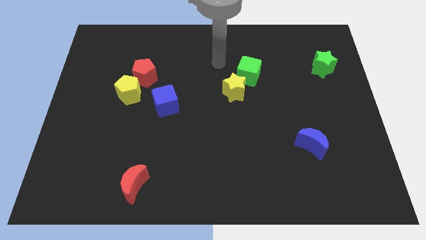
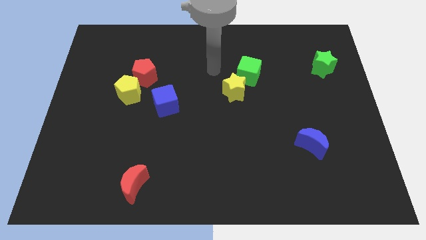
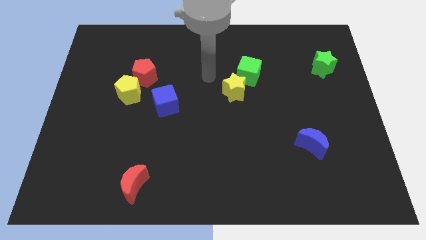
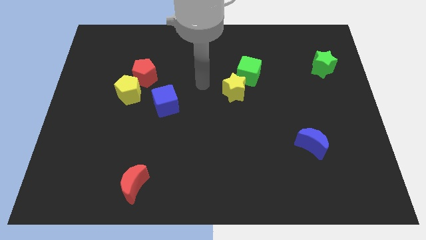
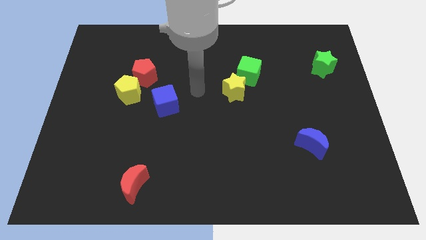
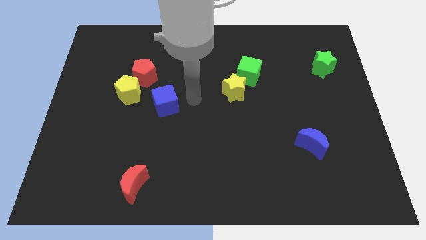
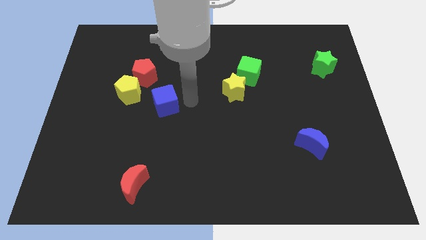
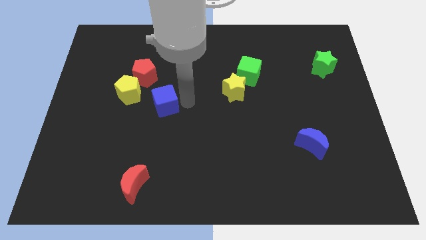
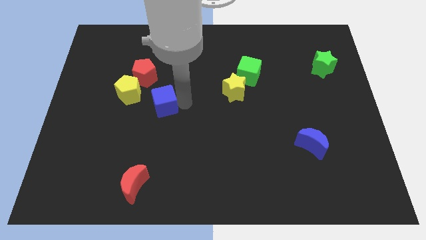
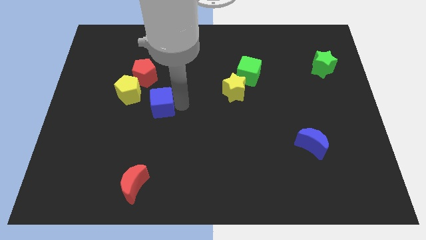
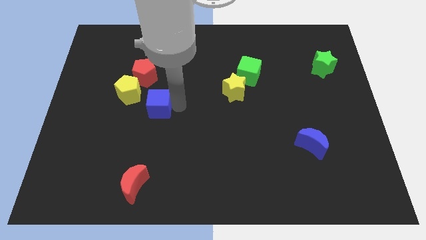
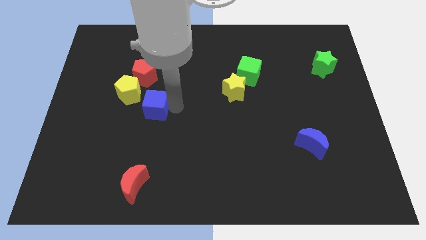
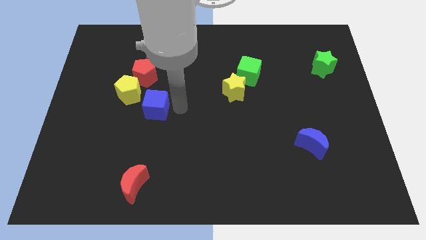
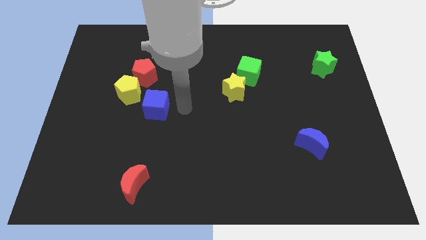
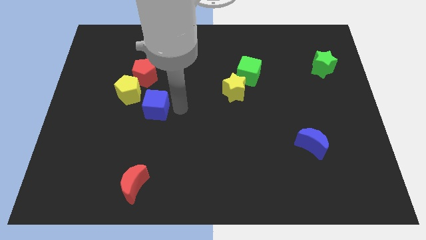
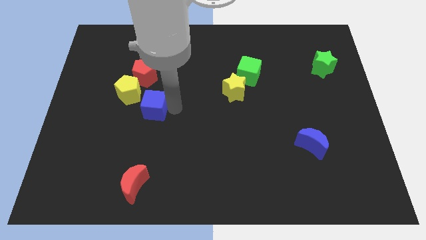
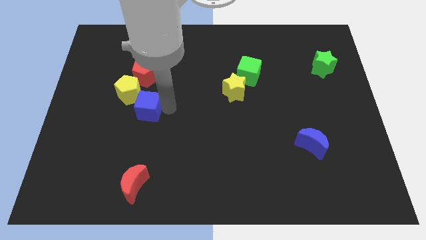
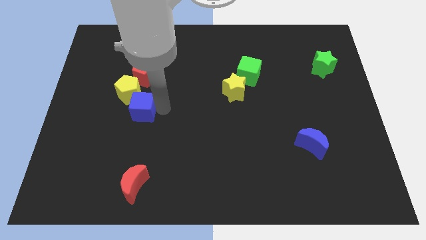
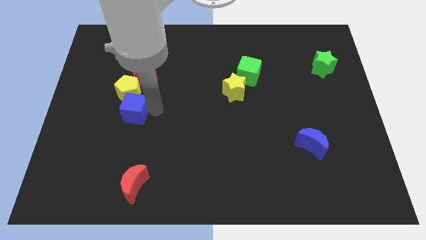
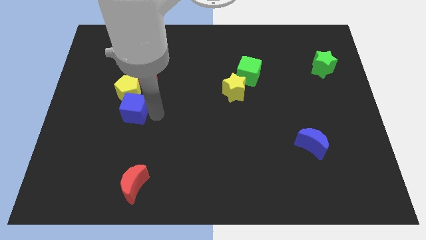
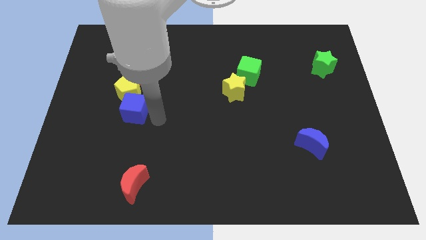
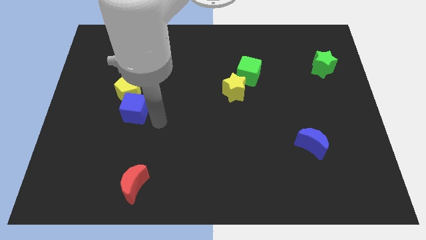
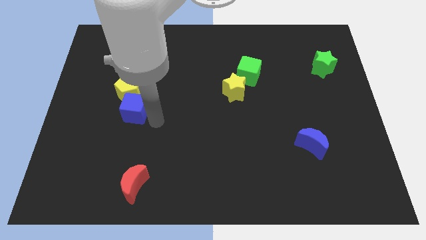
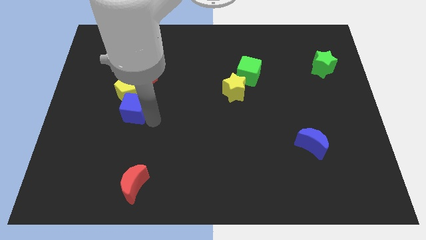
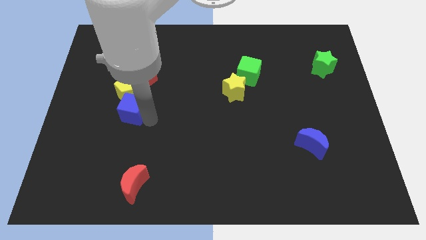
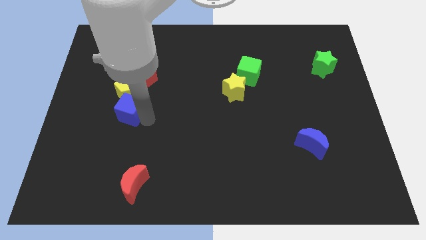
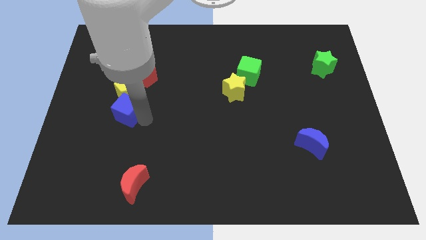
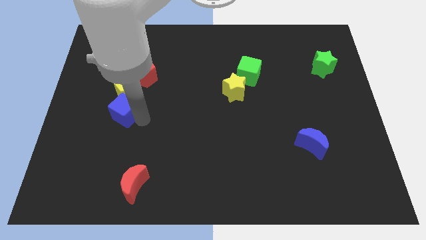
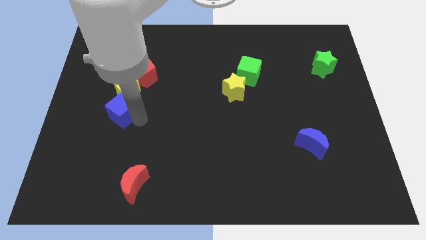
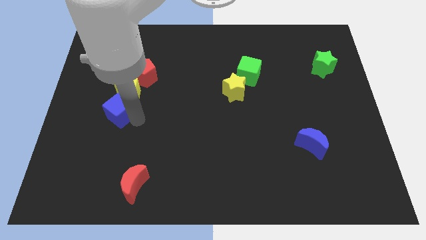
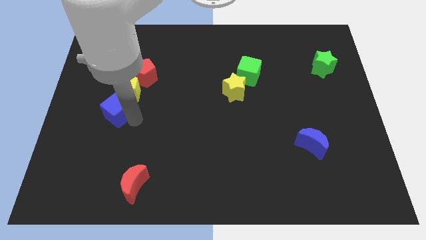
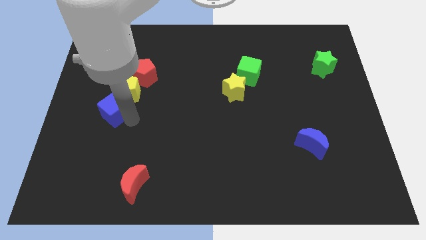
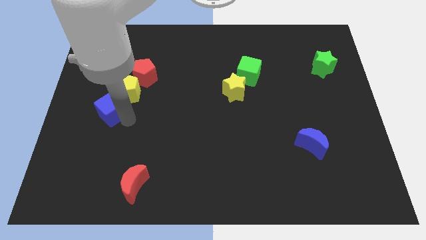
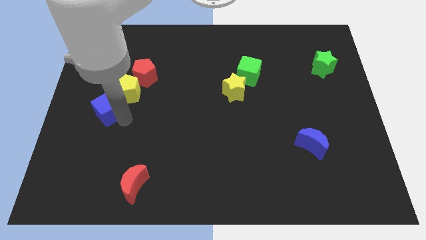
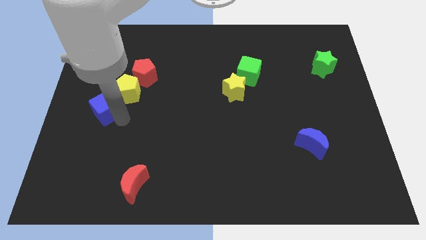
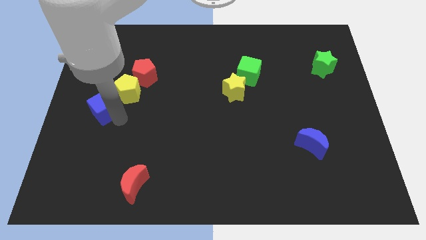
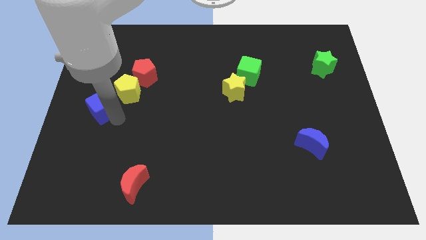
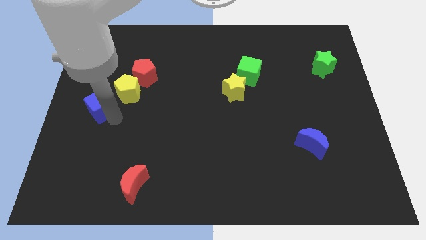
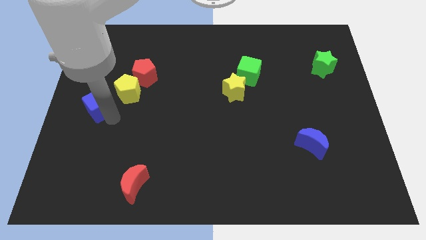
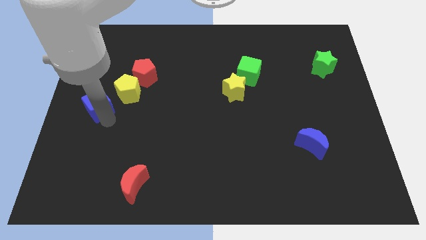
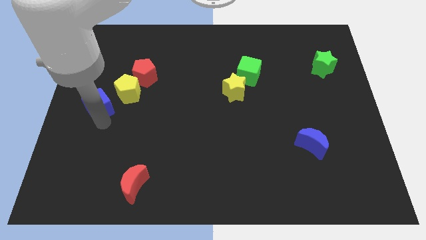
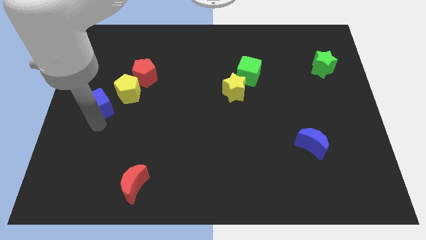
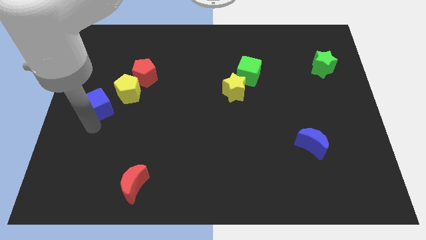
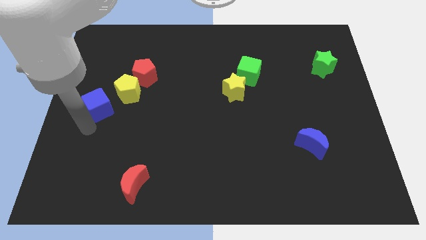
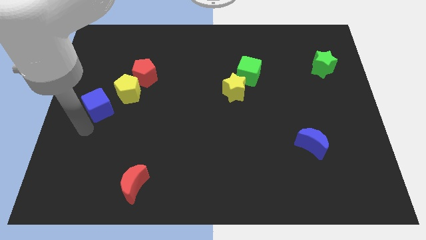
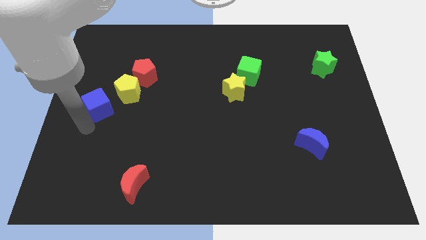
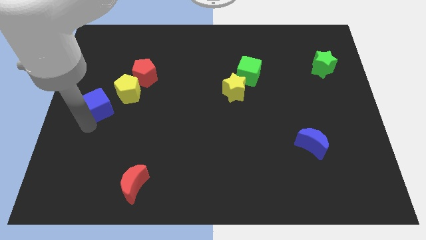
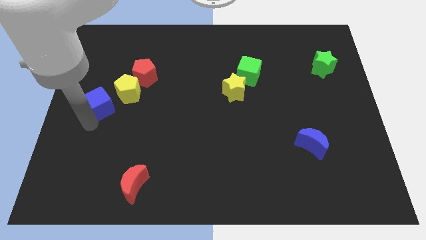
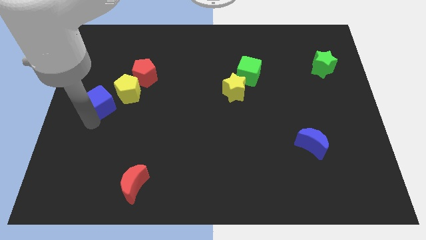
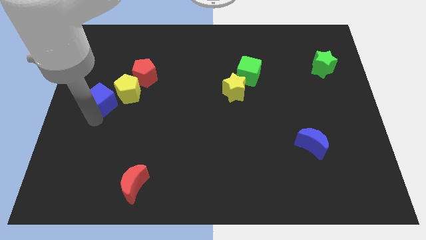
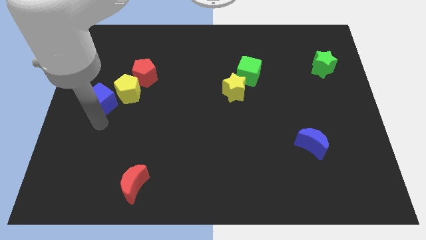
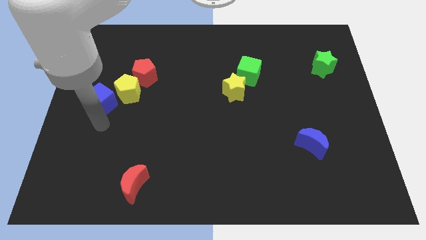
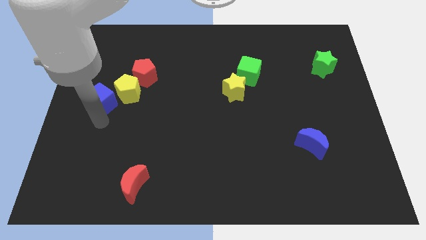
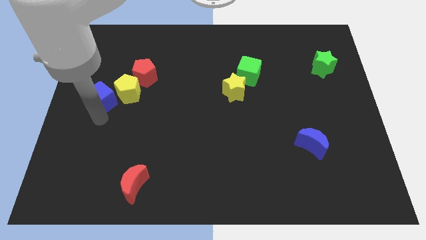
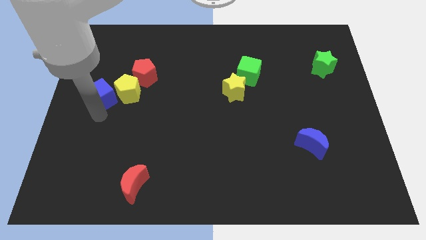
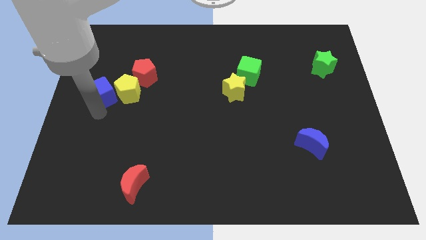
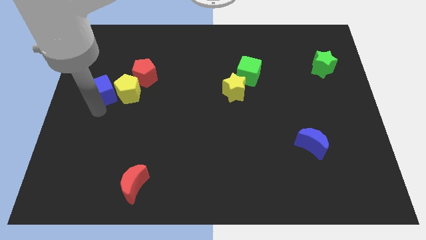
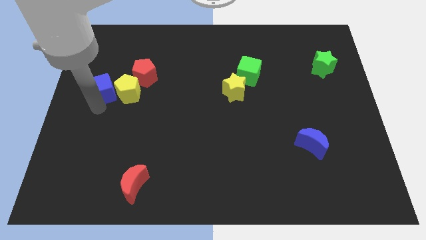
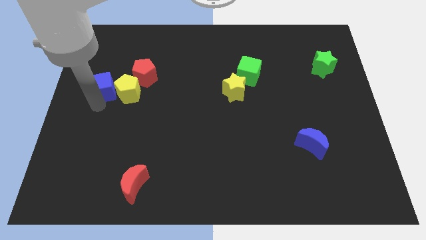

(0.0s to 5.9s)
slide the blue cube just left of the red pentagon

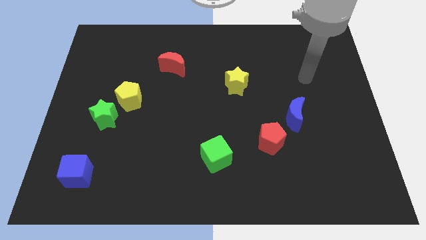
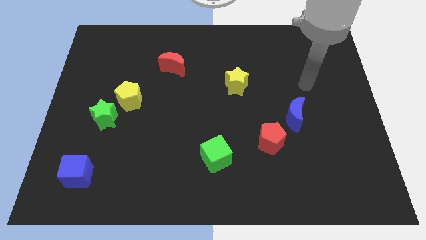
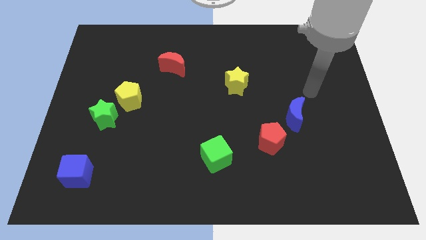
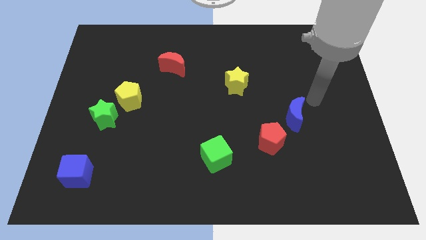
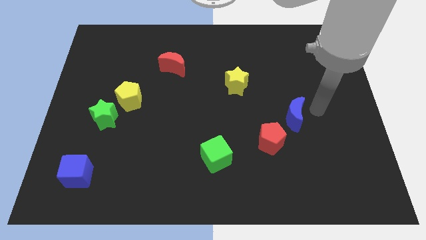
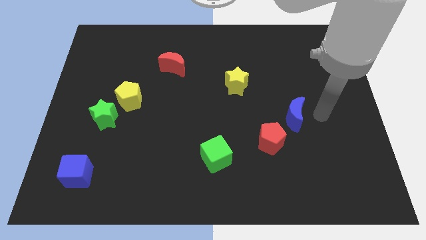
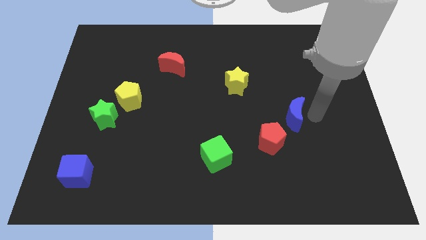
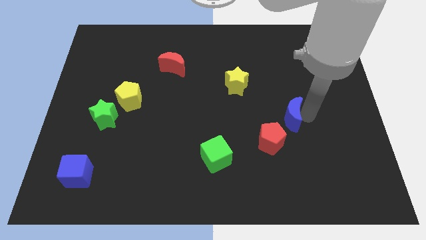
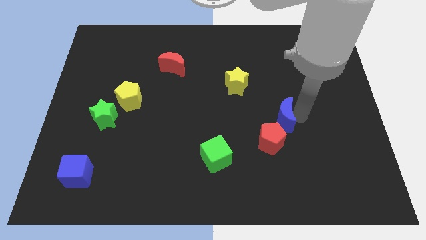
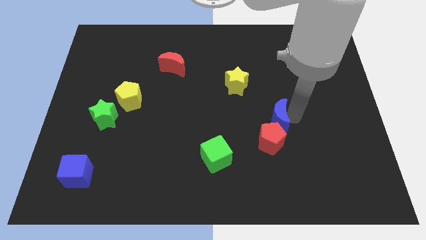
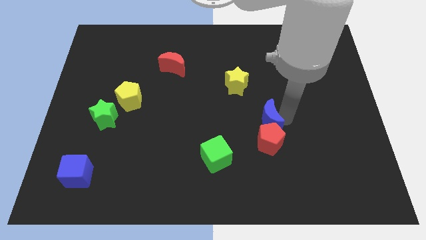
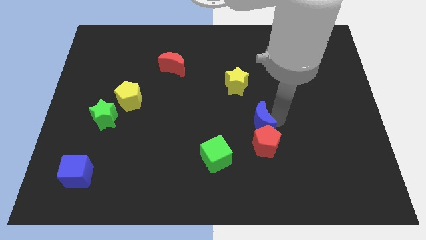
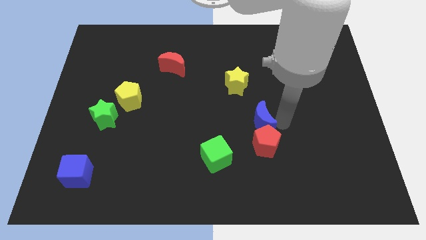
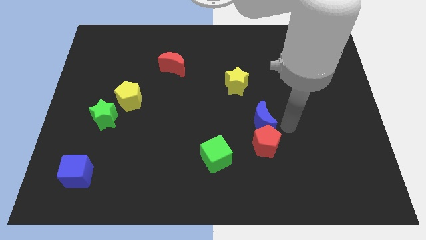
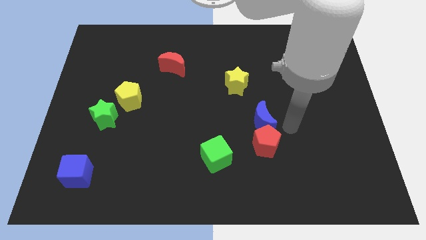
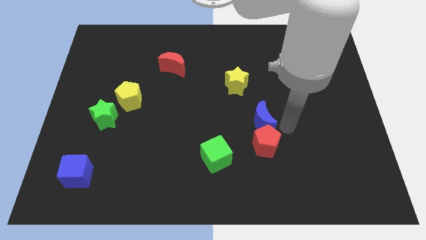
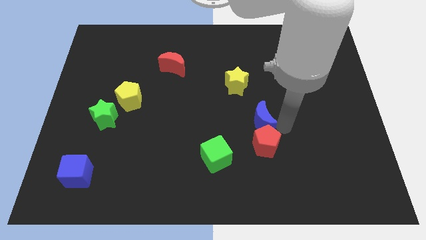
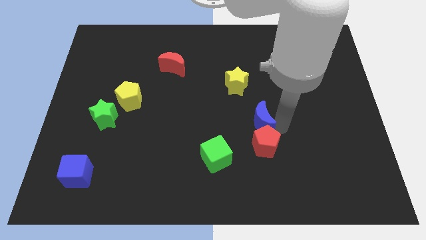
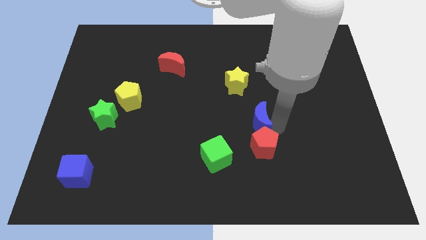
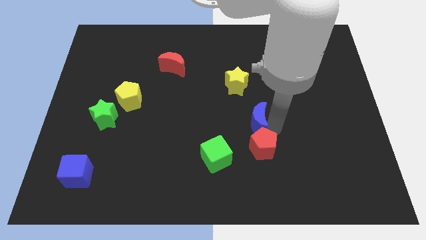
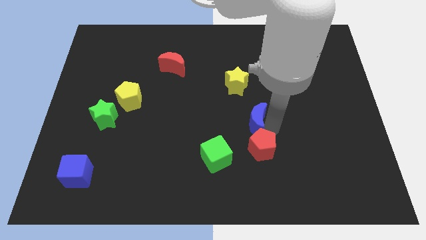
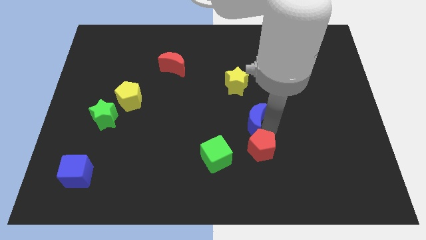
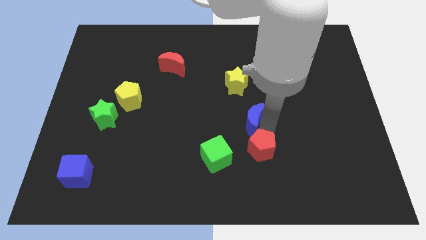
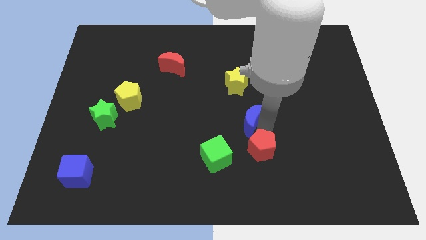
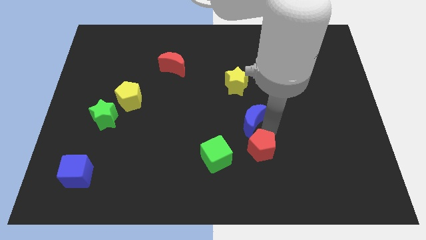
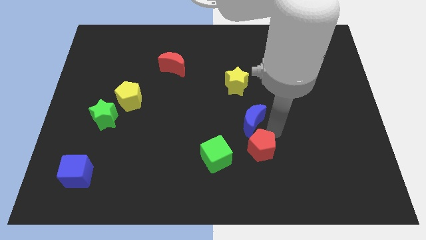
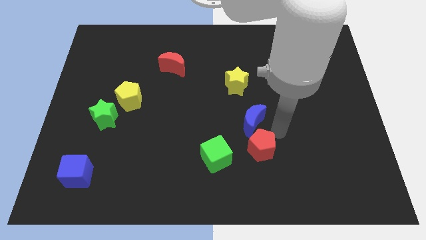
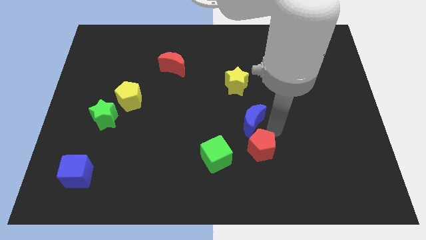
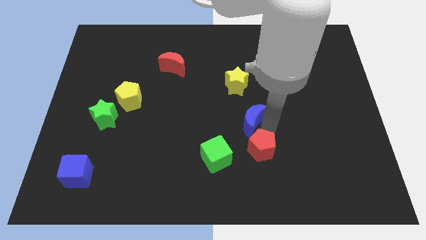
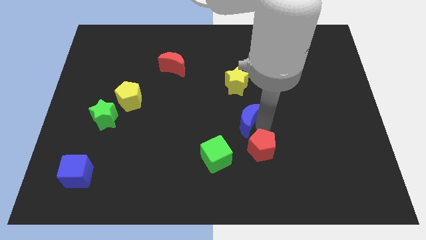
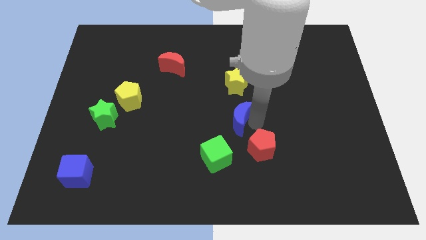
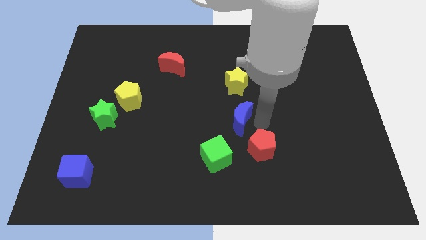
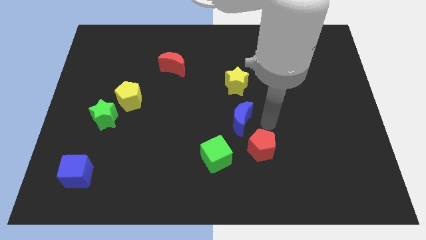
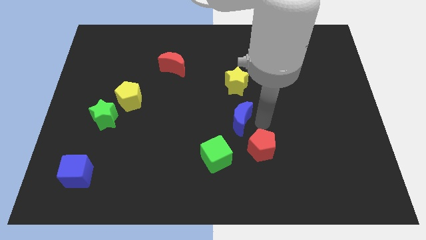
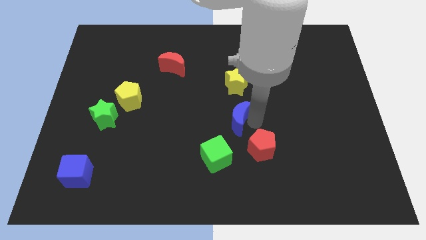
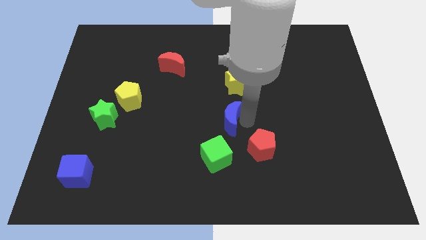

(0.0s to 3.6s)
put the blue moon to the top side of the green cube
